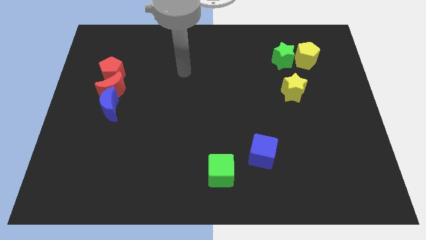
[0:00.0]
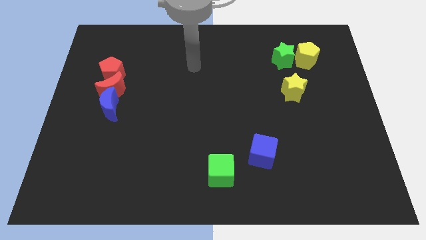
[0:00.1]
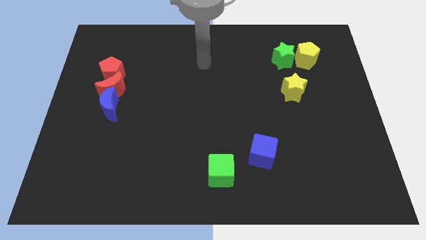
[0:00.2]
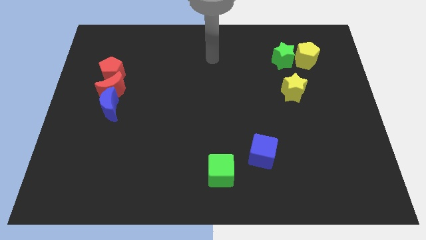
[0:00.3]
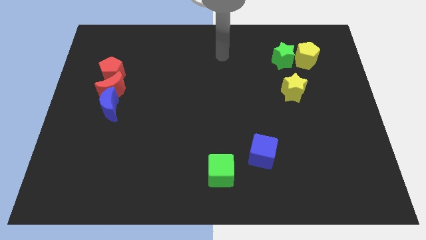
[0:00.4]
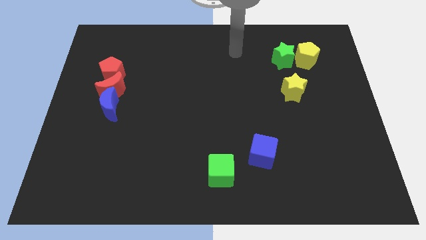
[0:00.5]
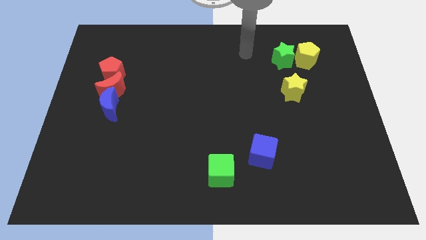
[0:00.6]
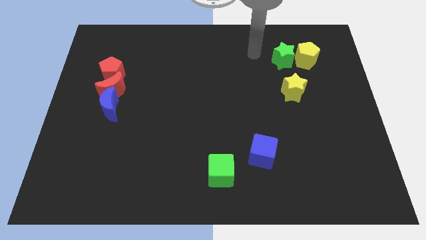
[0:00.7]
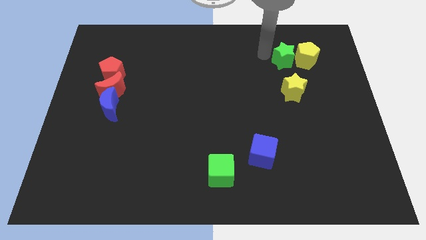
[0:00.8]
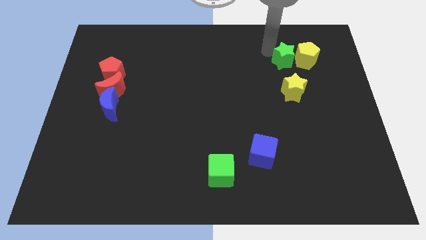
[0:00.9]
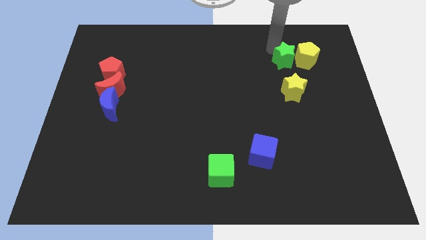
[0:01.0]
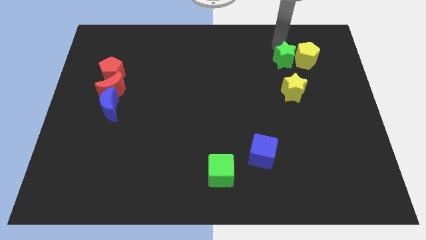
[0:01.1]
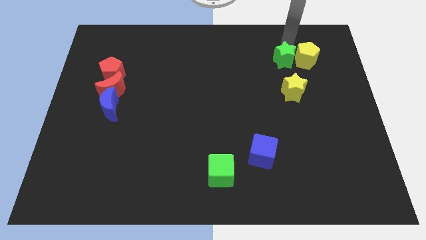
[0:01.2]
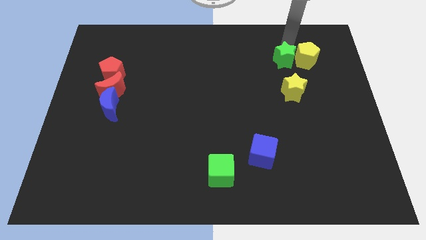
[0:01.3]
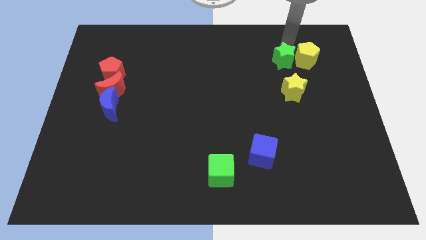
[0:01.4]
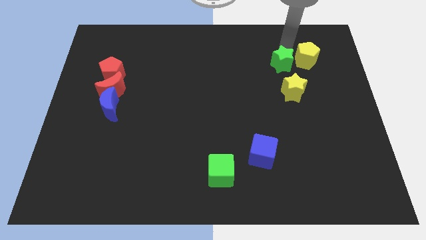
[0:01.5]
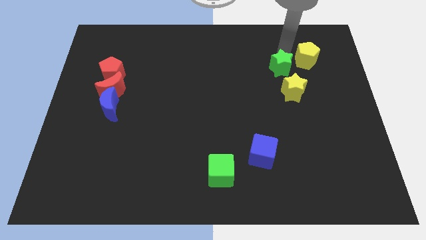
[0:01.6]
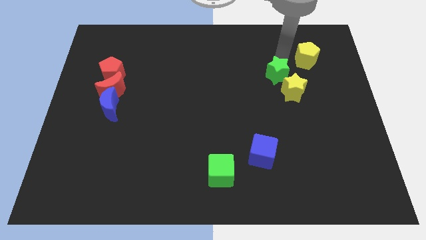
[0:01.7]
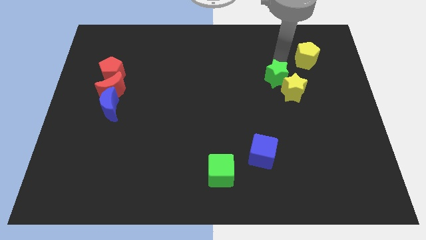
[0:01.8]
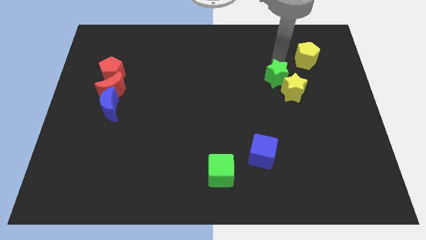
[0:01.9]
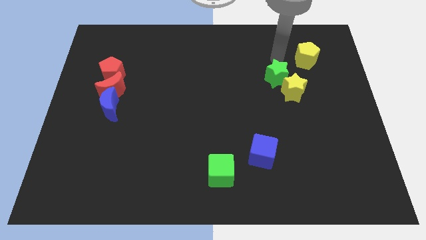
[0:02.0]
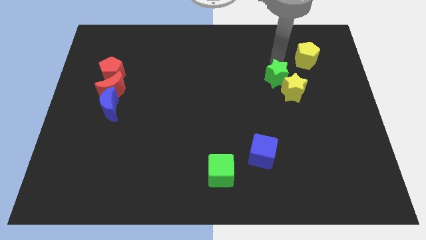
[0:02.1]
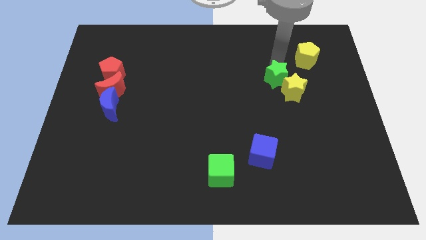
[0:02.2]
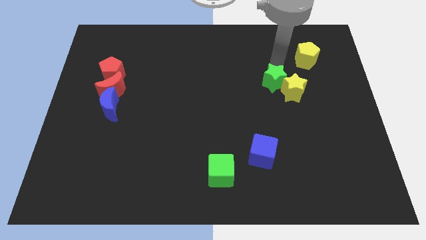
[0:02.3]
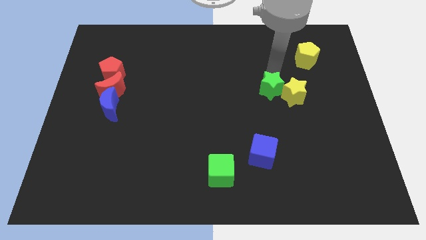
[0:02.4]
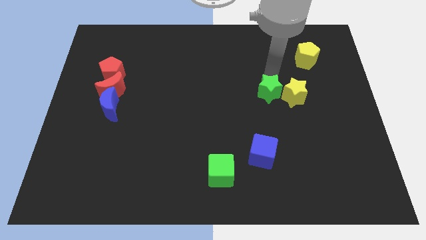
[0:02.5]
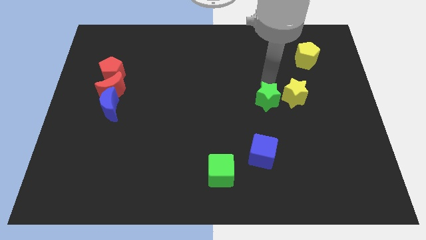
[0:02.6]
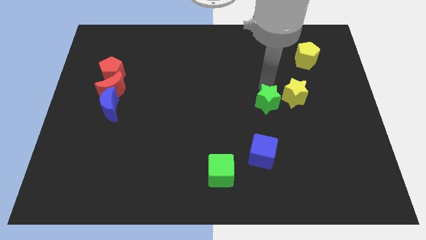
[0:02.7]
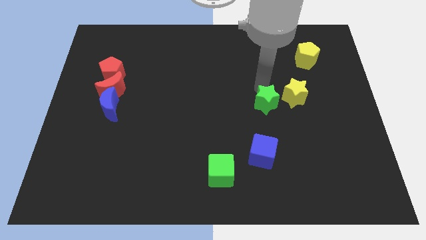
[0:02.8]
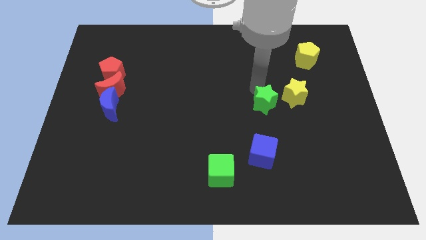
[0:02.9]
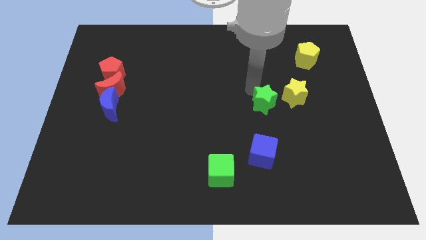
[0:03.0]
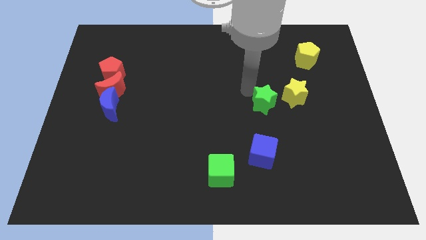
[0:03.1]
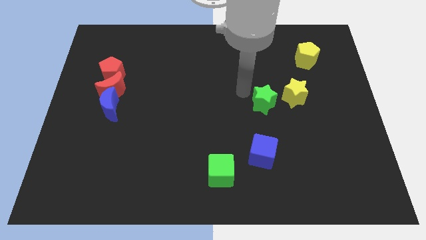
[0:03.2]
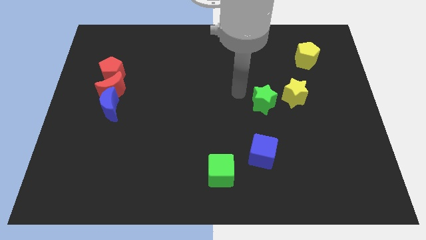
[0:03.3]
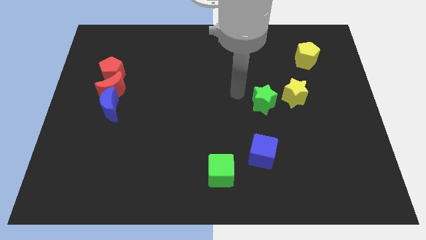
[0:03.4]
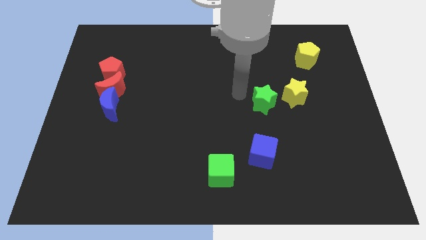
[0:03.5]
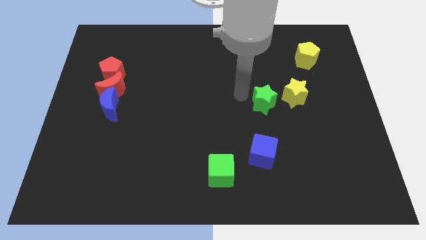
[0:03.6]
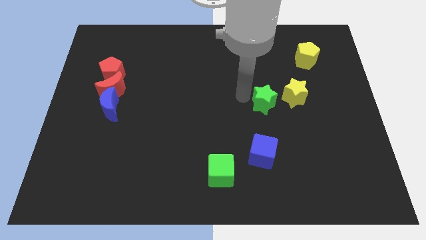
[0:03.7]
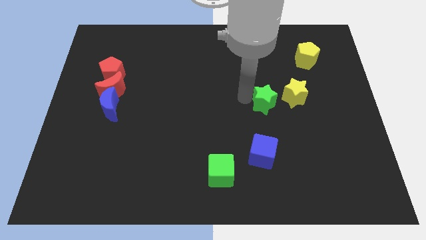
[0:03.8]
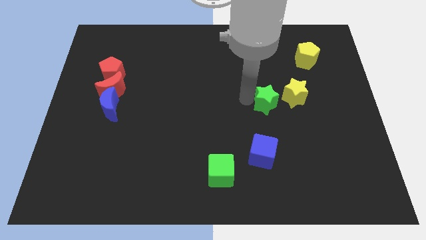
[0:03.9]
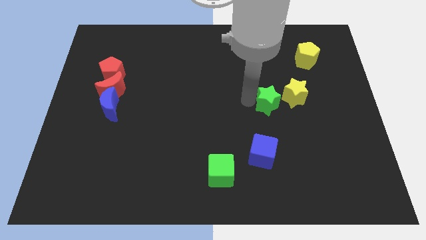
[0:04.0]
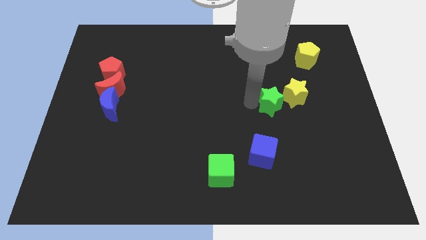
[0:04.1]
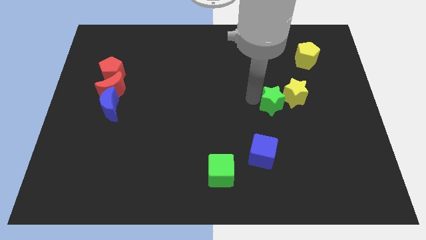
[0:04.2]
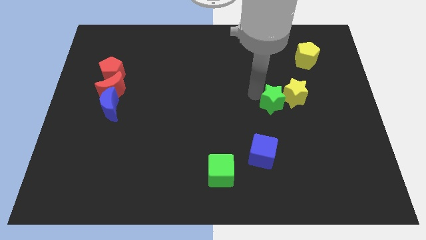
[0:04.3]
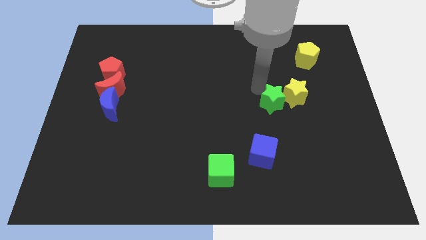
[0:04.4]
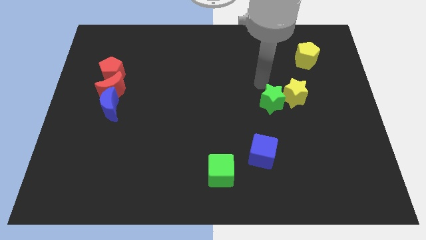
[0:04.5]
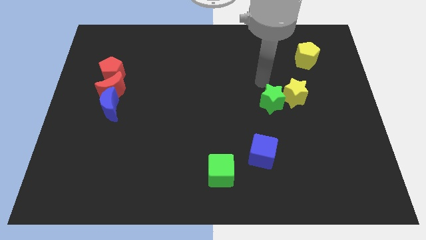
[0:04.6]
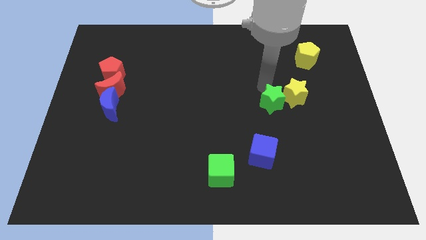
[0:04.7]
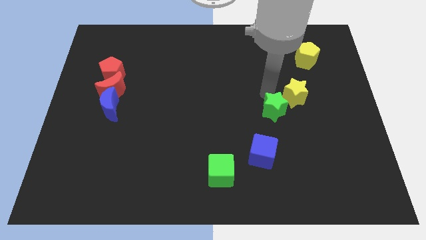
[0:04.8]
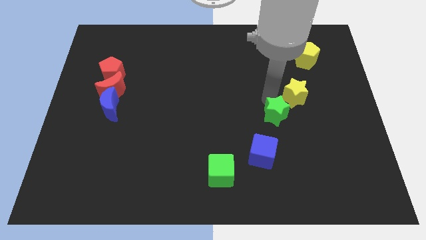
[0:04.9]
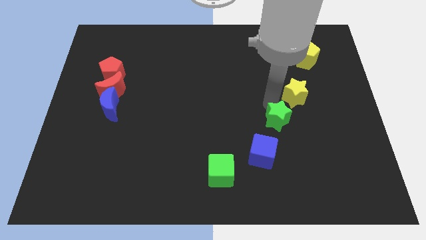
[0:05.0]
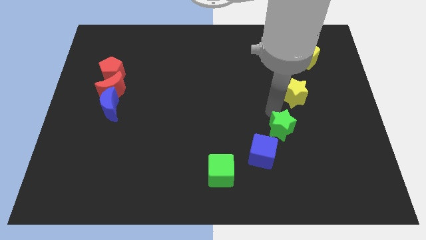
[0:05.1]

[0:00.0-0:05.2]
slide the green star downwards

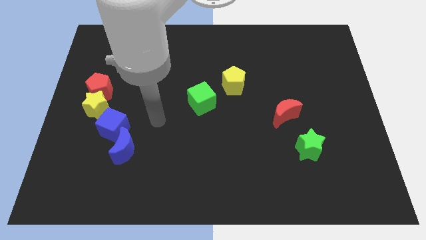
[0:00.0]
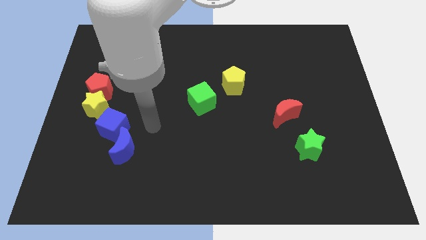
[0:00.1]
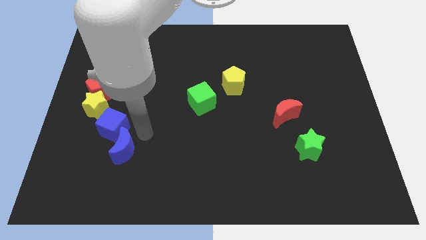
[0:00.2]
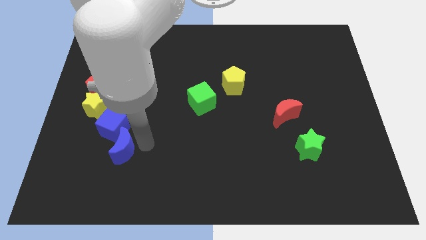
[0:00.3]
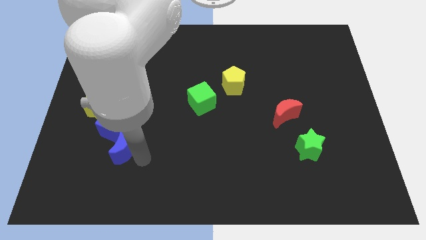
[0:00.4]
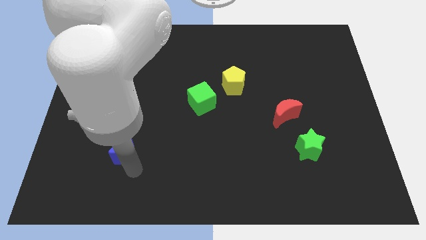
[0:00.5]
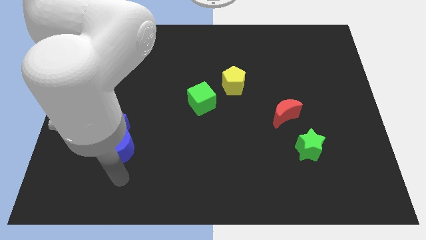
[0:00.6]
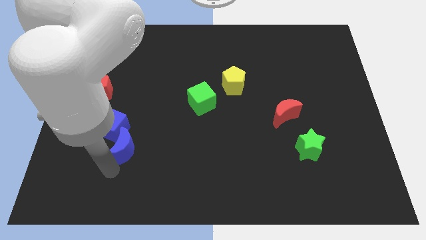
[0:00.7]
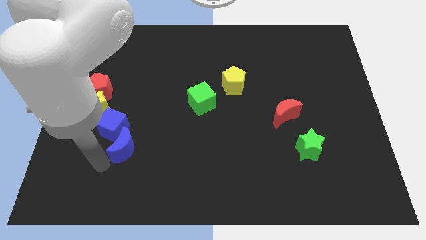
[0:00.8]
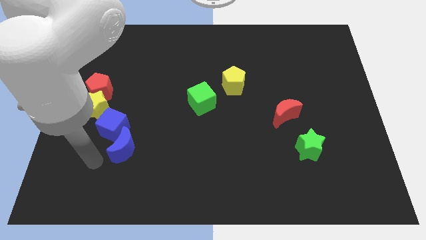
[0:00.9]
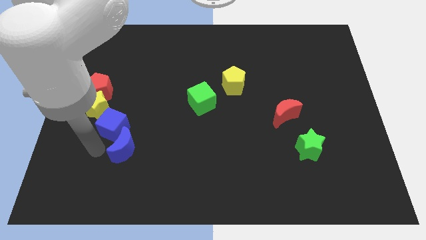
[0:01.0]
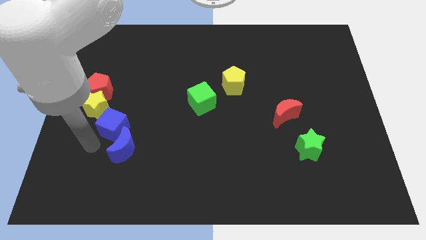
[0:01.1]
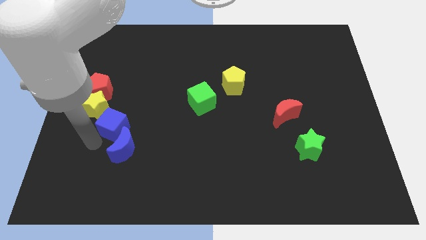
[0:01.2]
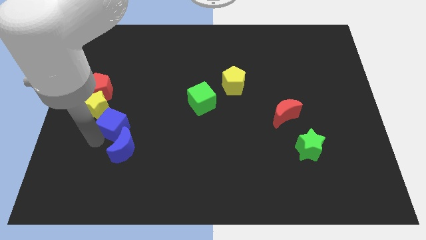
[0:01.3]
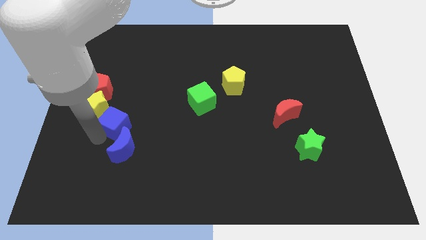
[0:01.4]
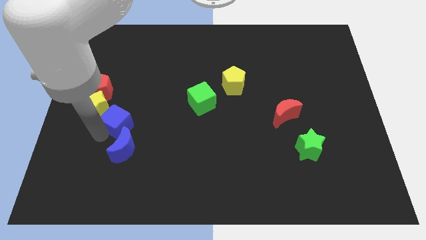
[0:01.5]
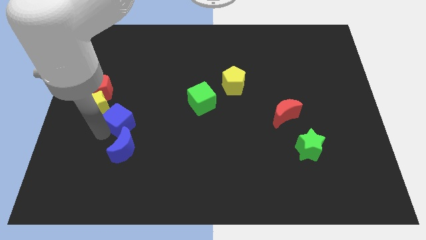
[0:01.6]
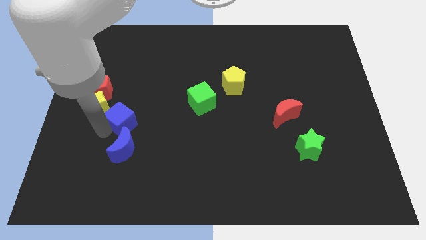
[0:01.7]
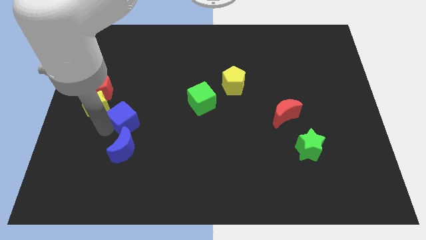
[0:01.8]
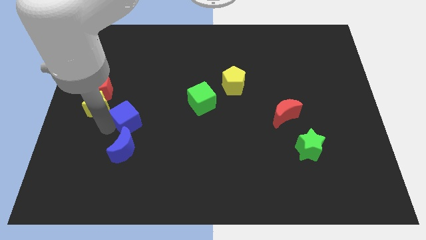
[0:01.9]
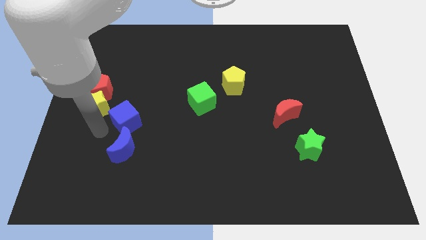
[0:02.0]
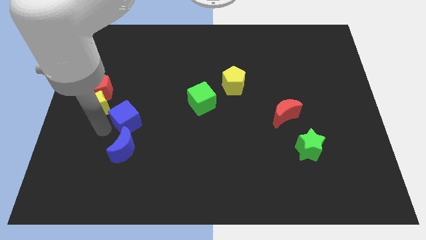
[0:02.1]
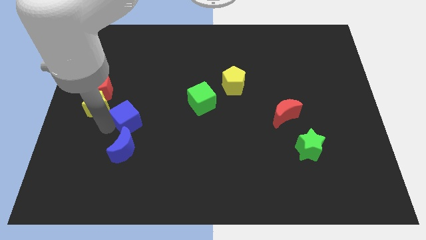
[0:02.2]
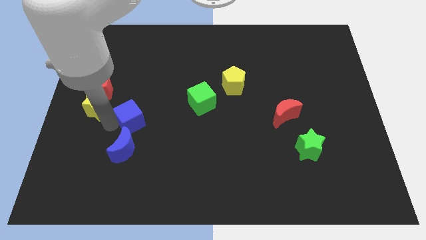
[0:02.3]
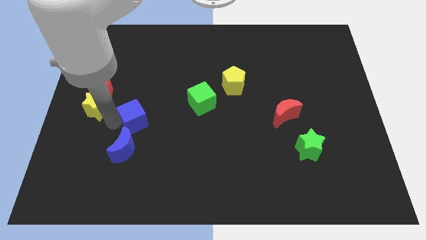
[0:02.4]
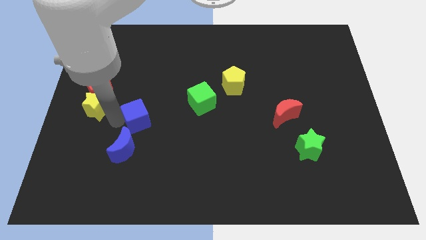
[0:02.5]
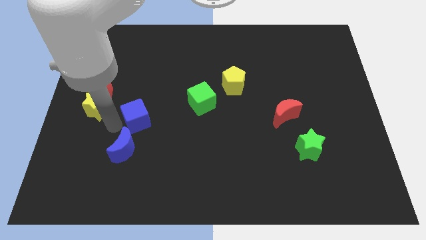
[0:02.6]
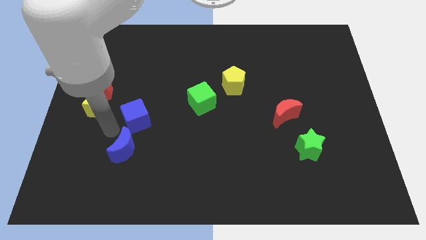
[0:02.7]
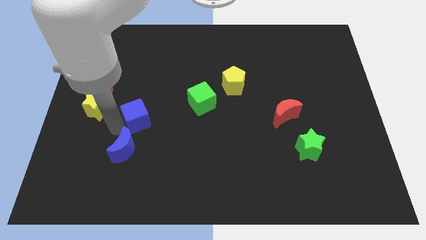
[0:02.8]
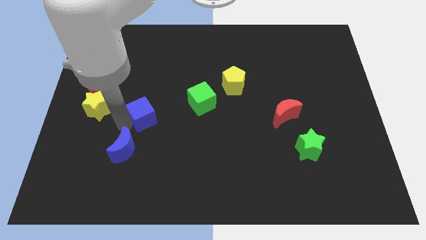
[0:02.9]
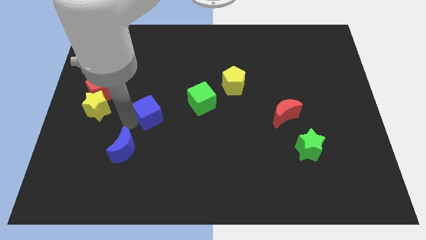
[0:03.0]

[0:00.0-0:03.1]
slightly slide the blue cube upwards and to the right diagonally

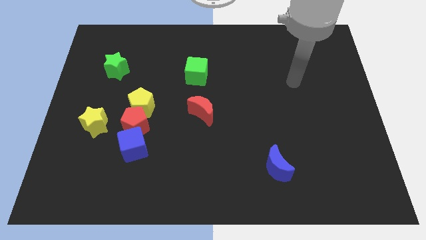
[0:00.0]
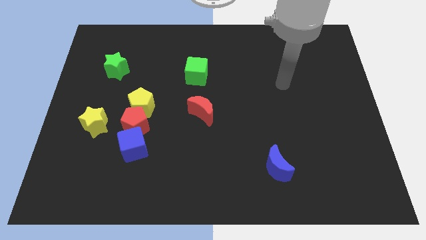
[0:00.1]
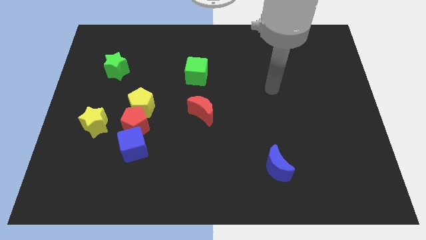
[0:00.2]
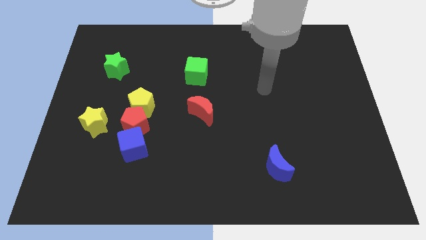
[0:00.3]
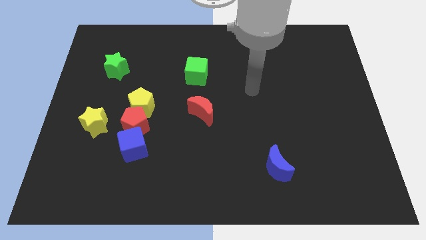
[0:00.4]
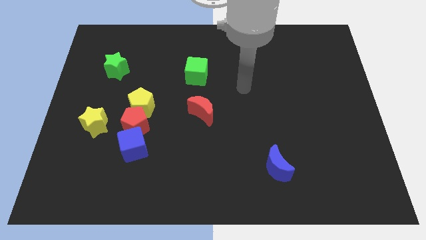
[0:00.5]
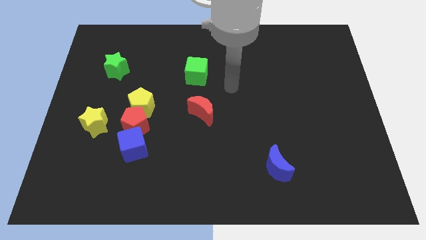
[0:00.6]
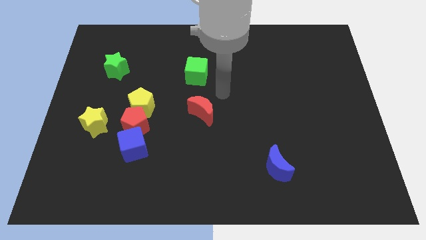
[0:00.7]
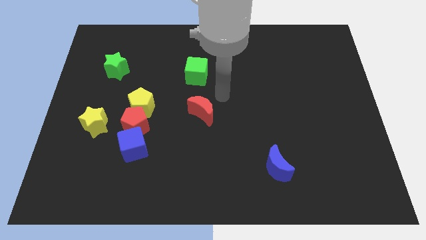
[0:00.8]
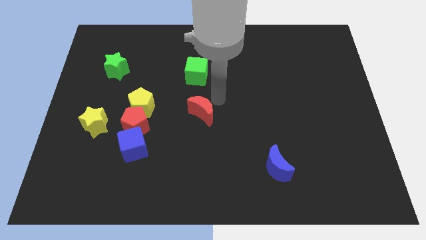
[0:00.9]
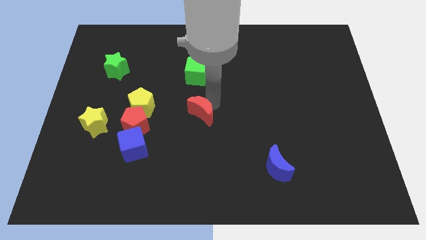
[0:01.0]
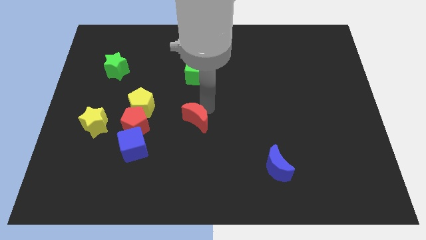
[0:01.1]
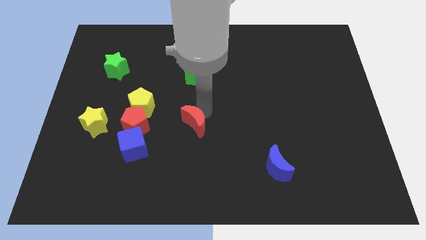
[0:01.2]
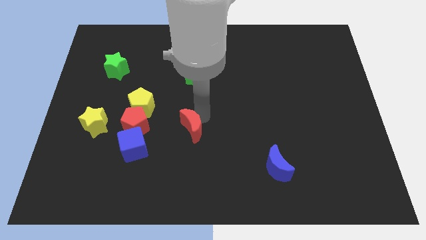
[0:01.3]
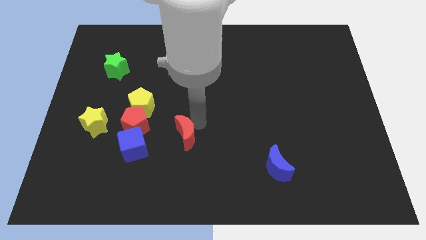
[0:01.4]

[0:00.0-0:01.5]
push the red moon a little bit downwards and to the left
